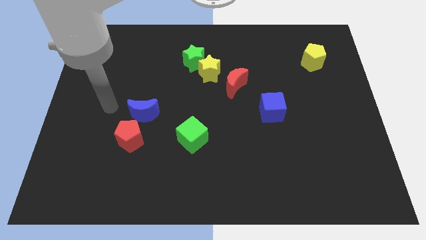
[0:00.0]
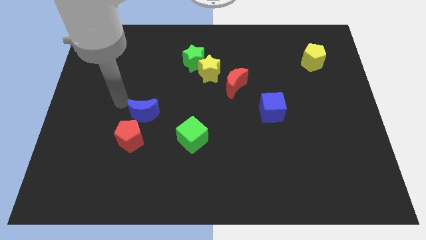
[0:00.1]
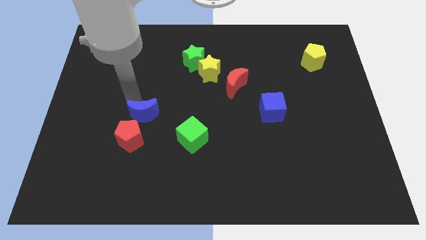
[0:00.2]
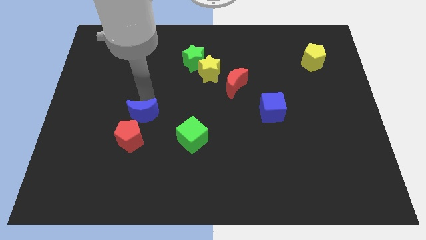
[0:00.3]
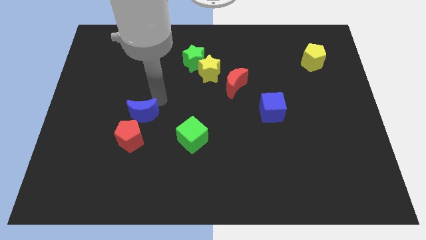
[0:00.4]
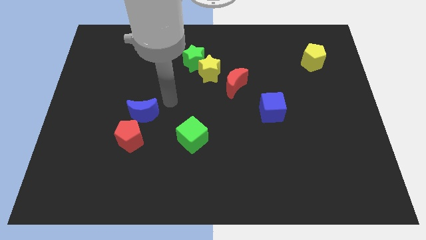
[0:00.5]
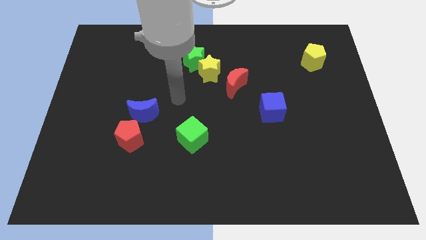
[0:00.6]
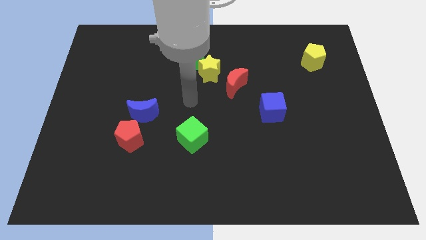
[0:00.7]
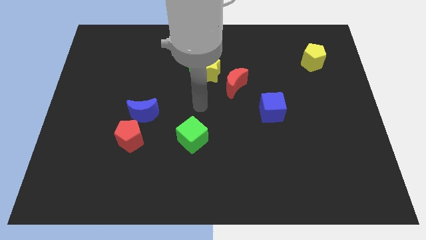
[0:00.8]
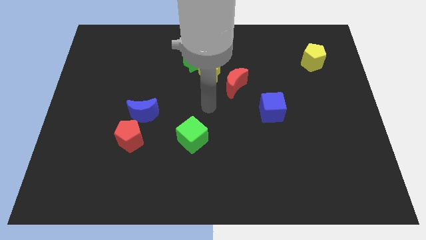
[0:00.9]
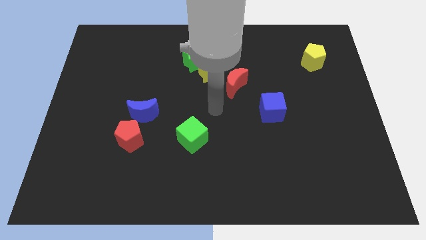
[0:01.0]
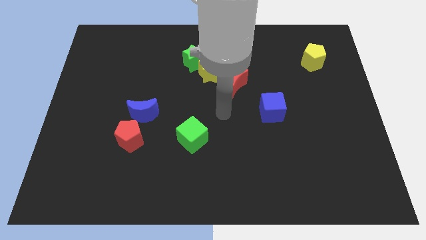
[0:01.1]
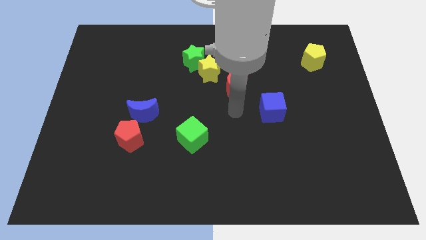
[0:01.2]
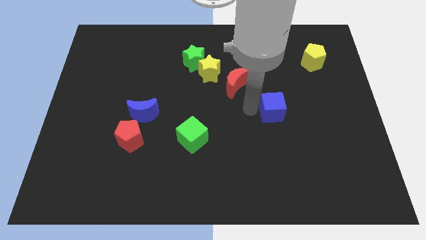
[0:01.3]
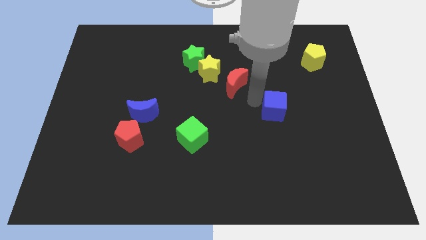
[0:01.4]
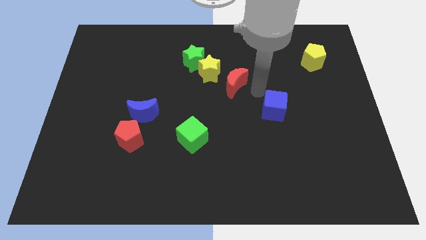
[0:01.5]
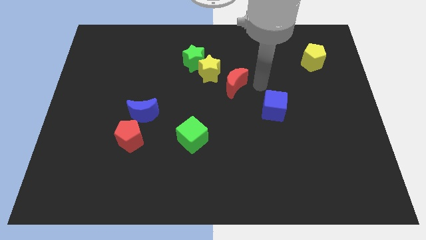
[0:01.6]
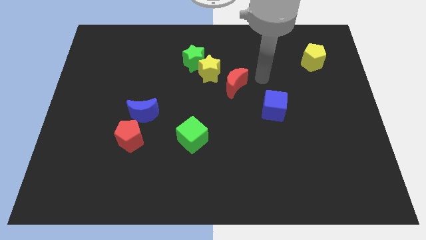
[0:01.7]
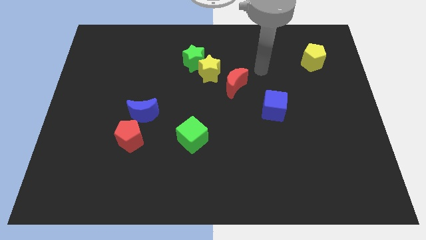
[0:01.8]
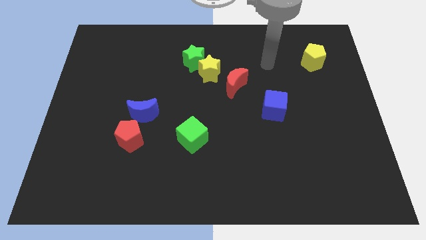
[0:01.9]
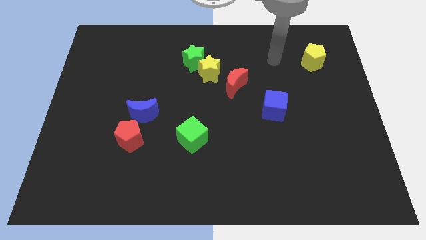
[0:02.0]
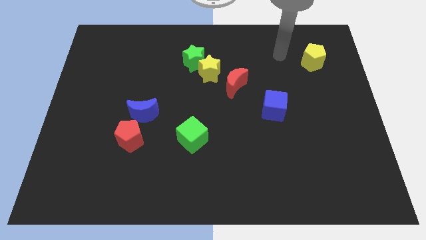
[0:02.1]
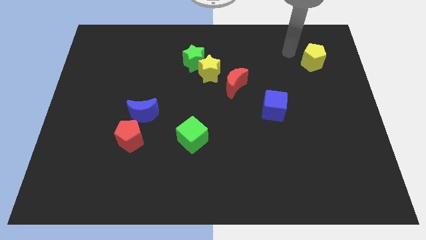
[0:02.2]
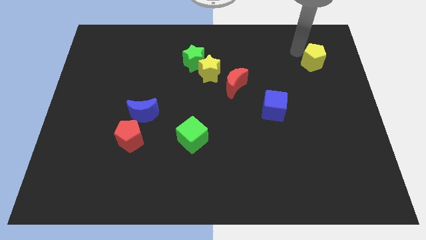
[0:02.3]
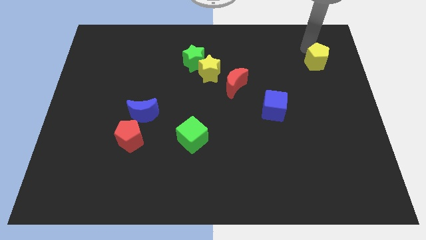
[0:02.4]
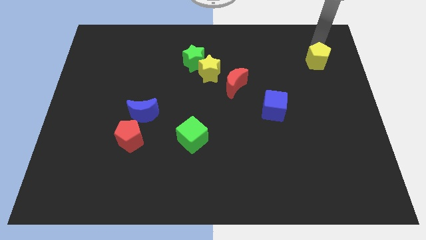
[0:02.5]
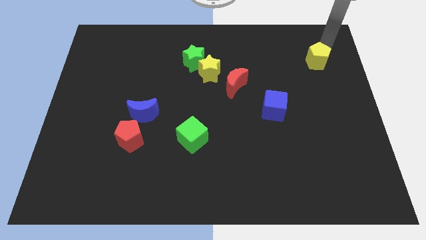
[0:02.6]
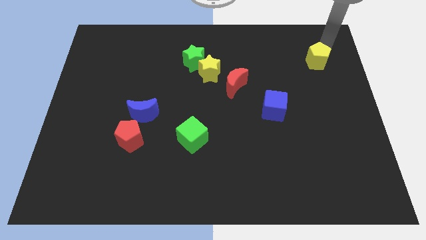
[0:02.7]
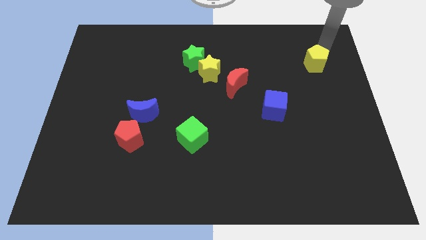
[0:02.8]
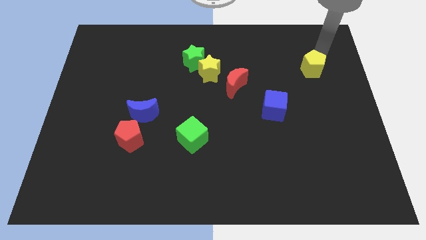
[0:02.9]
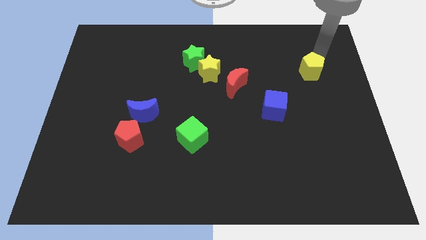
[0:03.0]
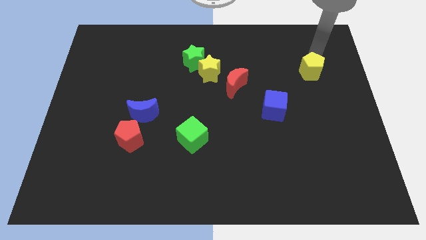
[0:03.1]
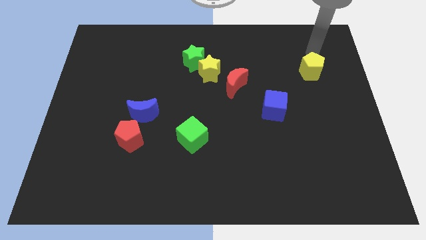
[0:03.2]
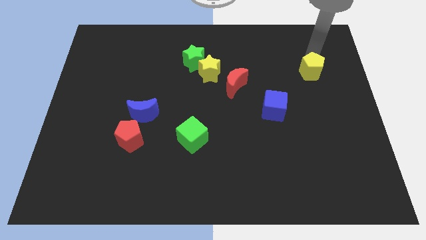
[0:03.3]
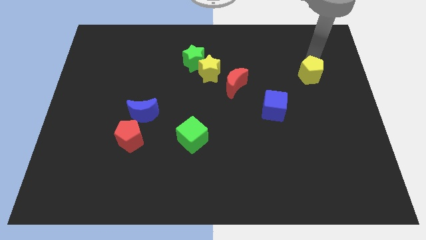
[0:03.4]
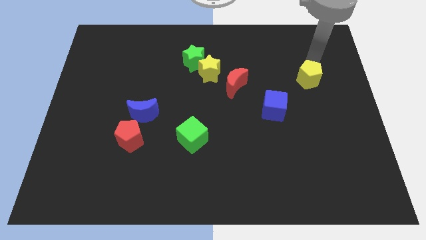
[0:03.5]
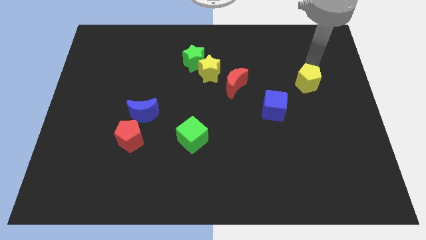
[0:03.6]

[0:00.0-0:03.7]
push the yellow pentagon downwards a little bit

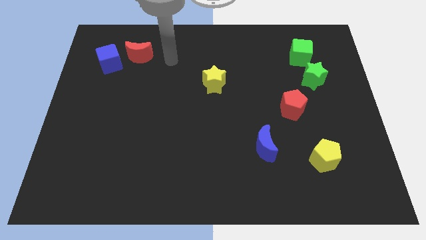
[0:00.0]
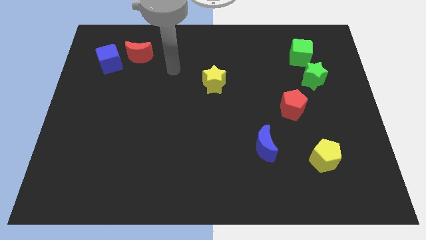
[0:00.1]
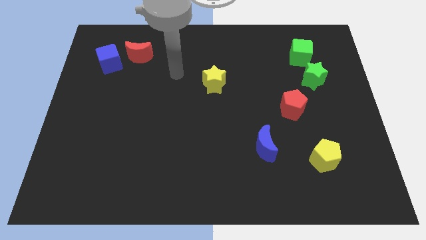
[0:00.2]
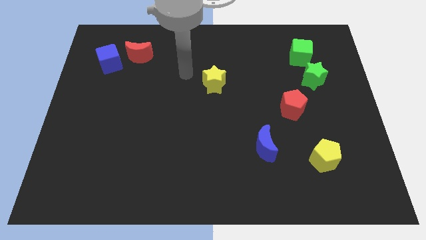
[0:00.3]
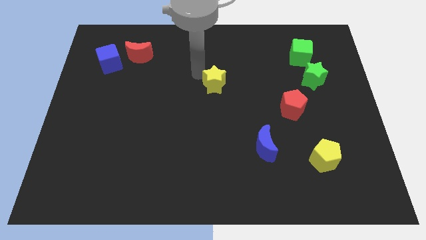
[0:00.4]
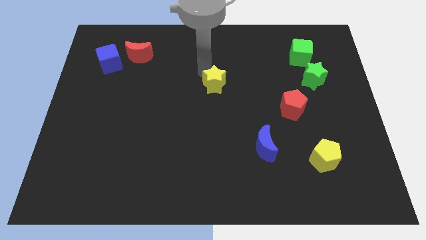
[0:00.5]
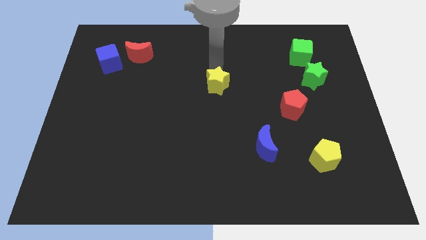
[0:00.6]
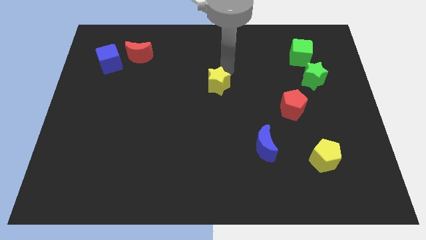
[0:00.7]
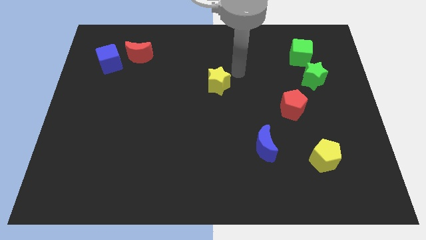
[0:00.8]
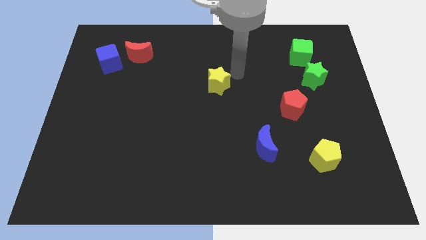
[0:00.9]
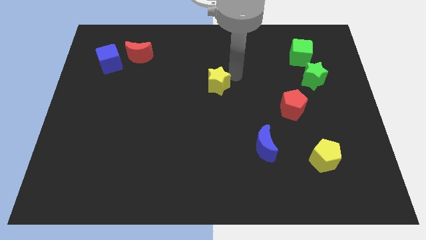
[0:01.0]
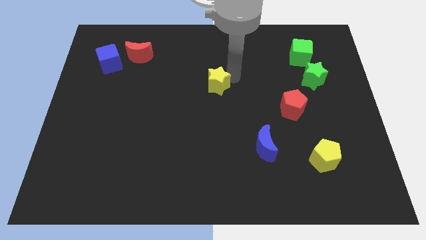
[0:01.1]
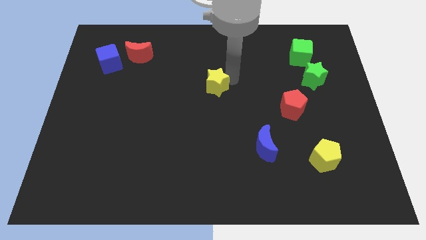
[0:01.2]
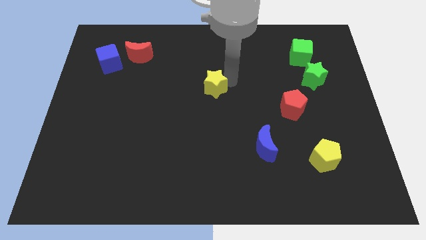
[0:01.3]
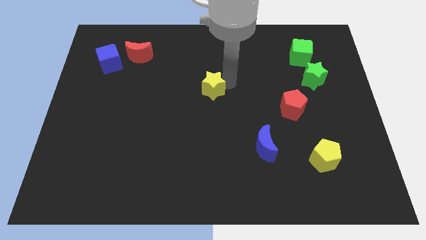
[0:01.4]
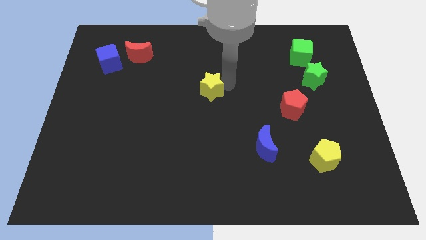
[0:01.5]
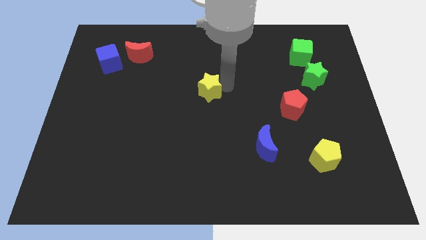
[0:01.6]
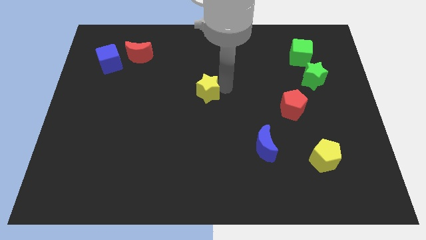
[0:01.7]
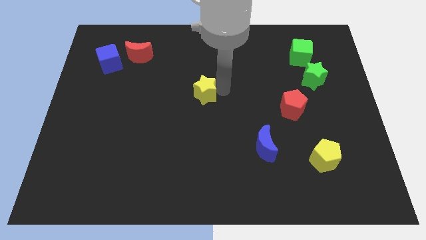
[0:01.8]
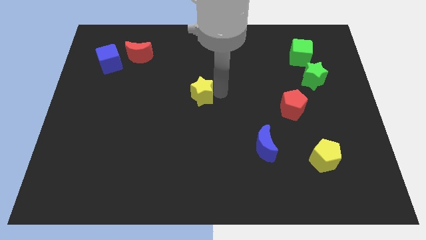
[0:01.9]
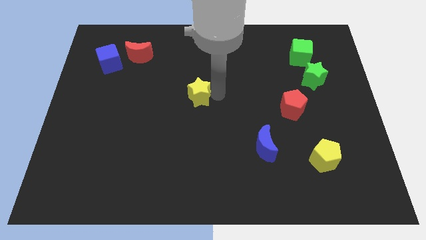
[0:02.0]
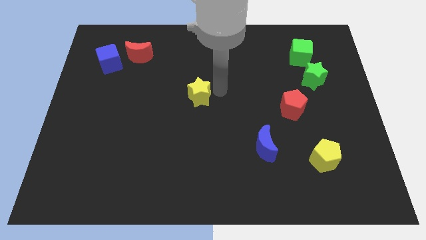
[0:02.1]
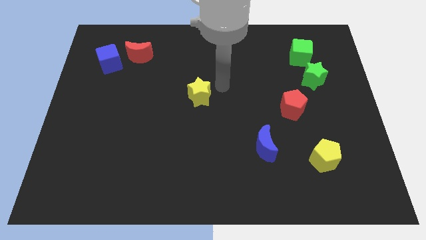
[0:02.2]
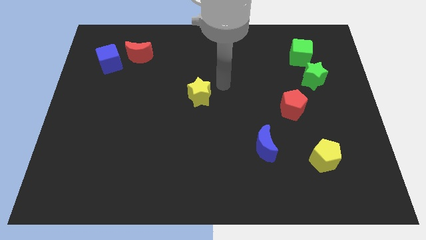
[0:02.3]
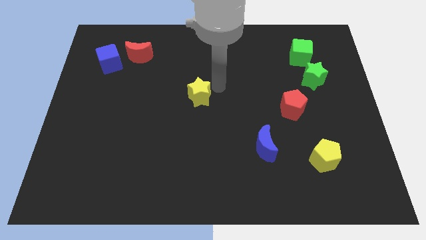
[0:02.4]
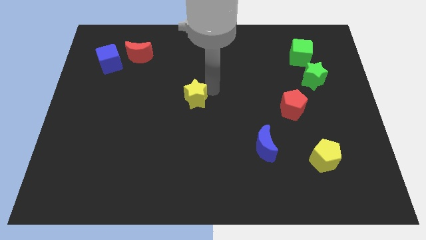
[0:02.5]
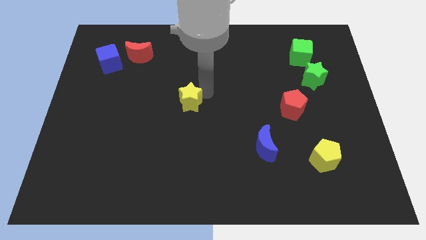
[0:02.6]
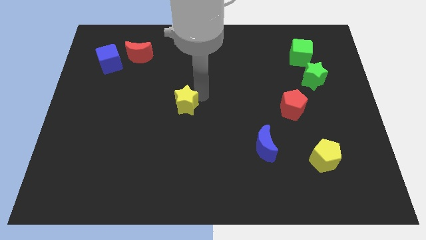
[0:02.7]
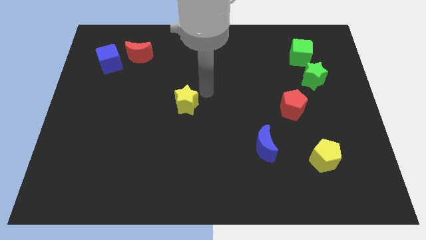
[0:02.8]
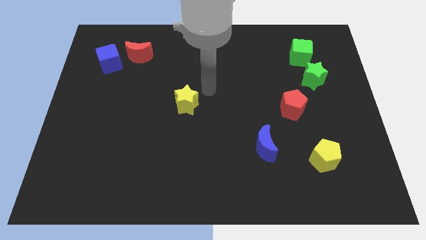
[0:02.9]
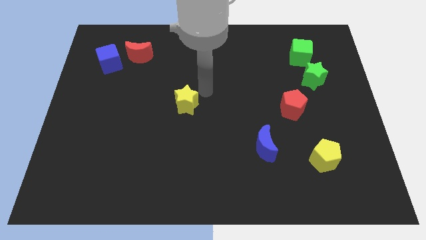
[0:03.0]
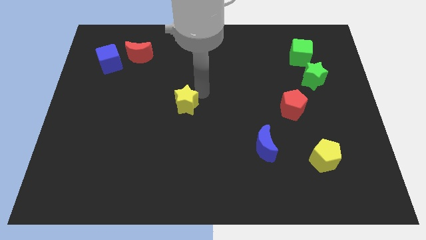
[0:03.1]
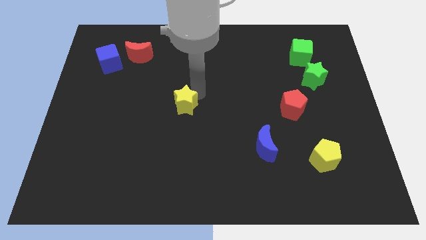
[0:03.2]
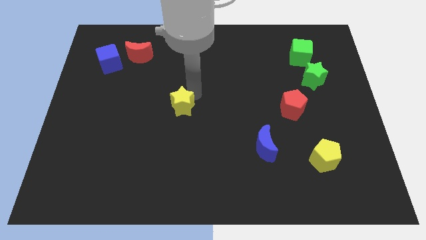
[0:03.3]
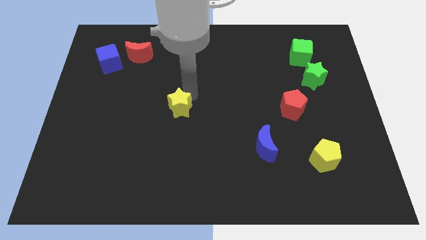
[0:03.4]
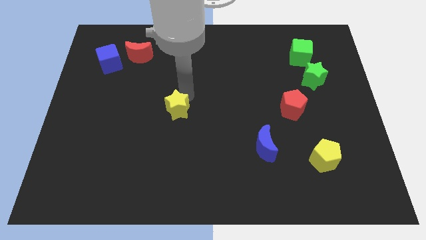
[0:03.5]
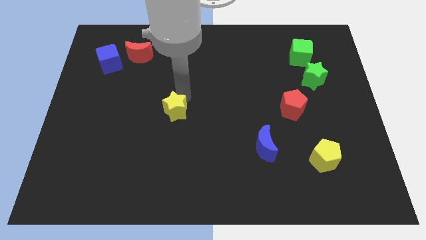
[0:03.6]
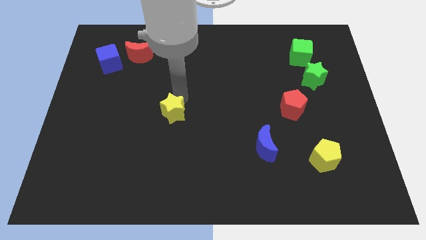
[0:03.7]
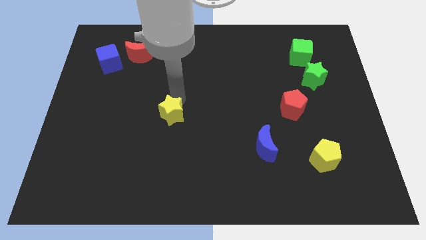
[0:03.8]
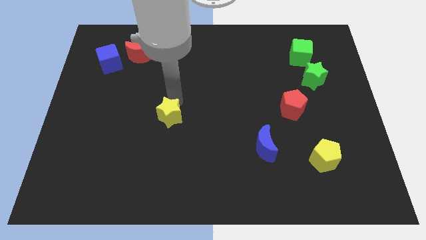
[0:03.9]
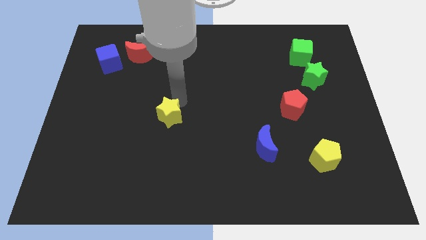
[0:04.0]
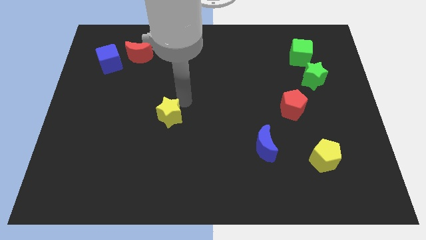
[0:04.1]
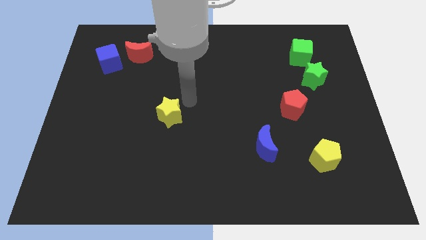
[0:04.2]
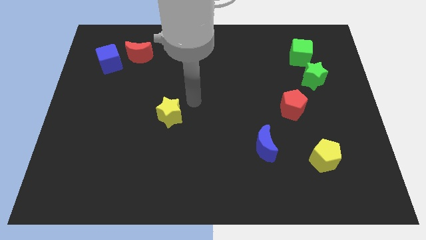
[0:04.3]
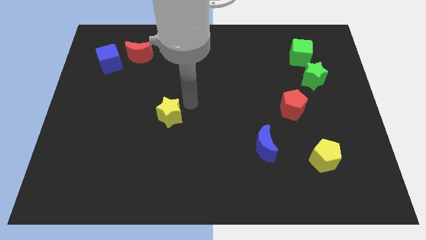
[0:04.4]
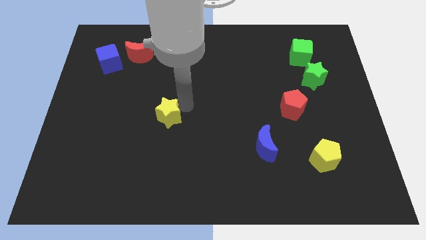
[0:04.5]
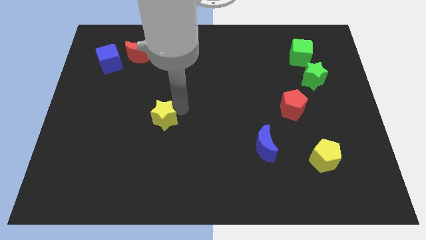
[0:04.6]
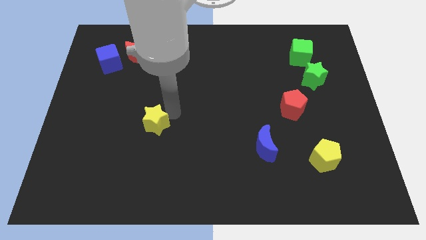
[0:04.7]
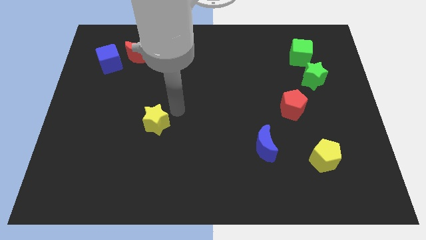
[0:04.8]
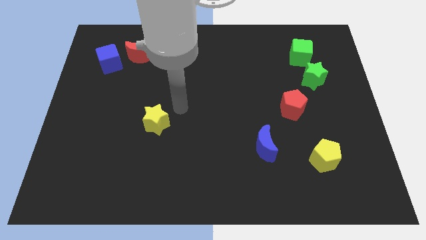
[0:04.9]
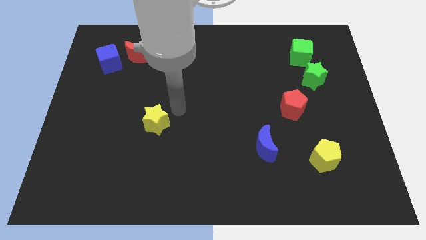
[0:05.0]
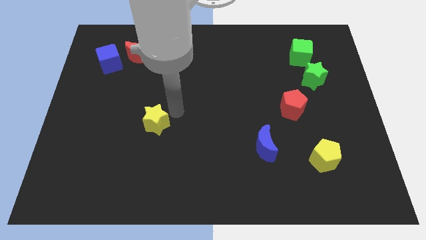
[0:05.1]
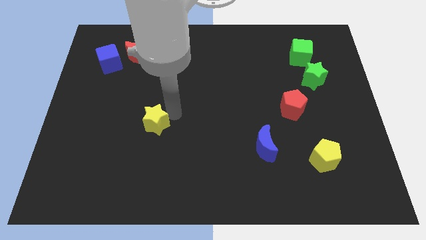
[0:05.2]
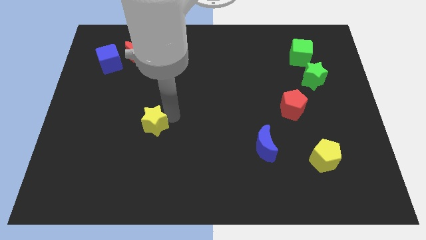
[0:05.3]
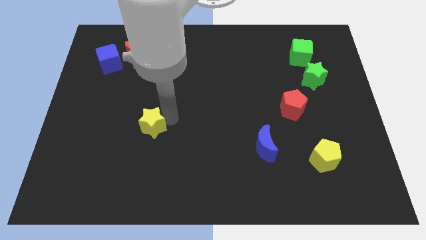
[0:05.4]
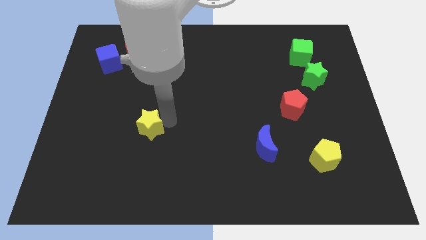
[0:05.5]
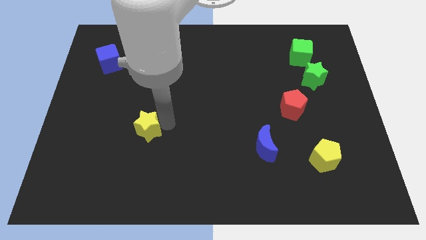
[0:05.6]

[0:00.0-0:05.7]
move the yellow star down and then to the left
